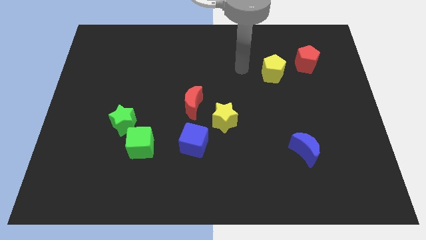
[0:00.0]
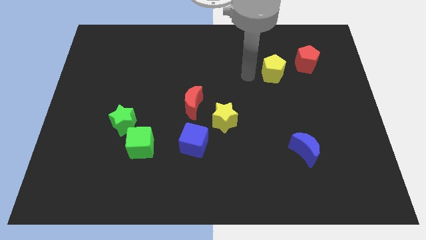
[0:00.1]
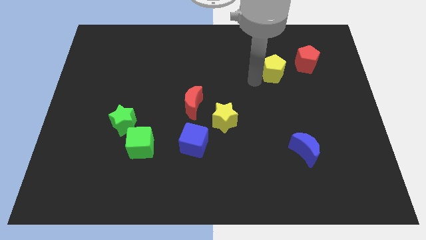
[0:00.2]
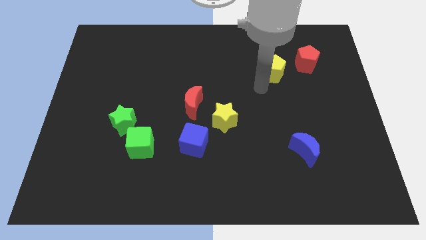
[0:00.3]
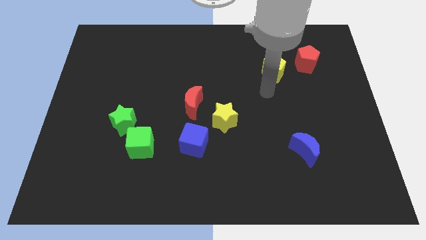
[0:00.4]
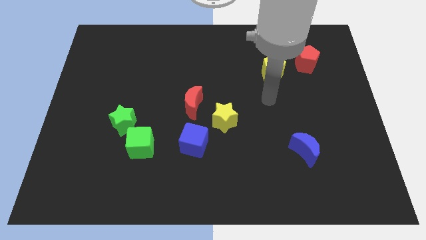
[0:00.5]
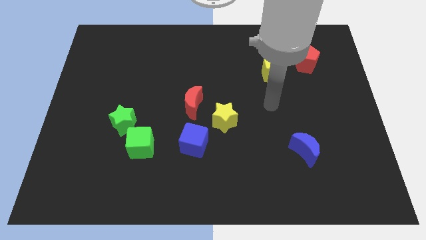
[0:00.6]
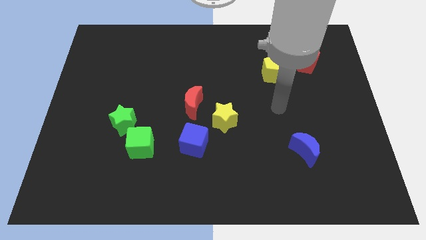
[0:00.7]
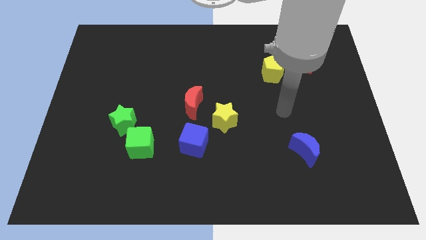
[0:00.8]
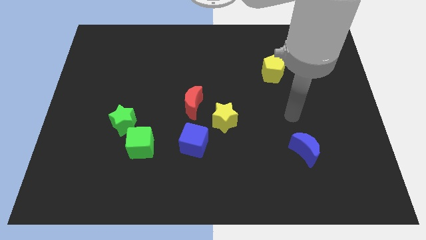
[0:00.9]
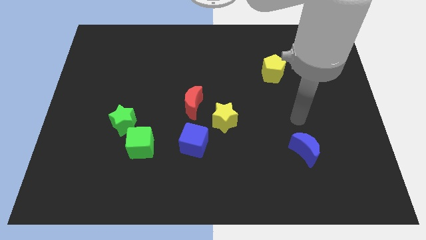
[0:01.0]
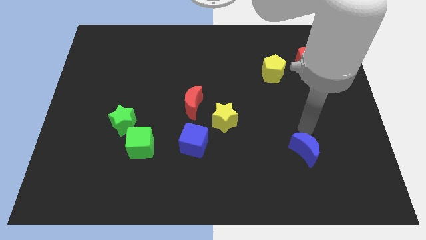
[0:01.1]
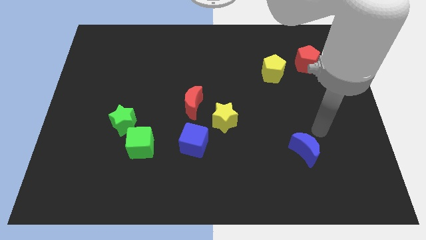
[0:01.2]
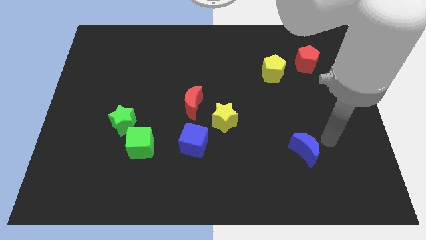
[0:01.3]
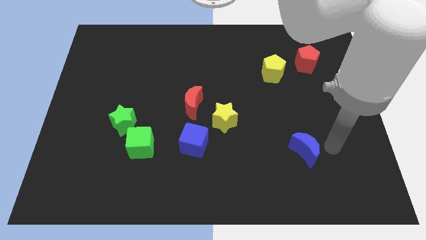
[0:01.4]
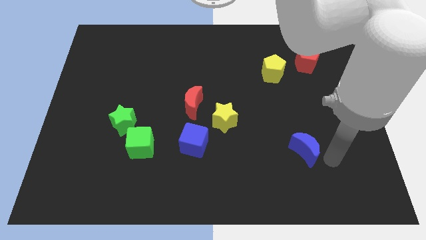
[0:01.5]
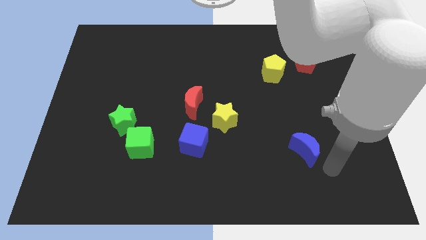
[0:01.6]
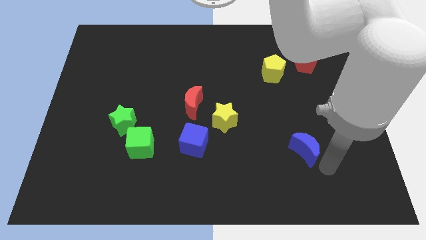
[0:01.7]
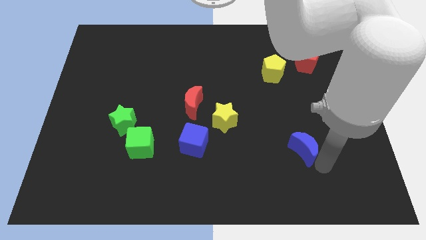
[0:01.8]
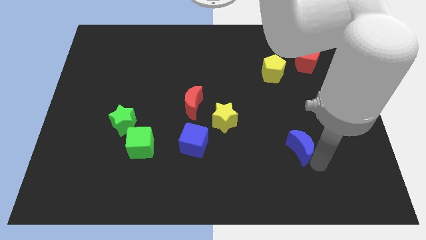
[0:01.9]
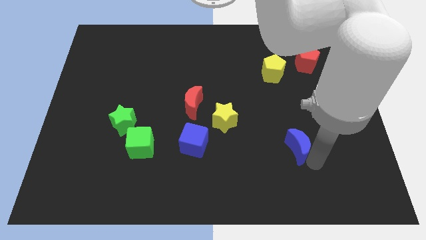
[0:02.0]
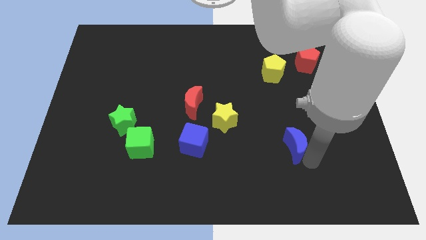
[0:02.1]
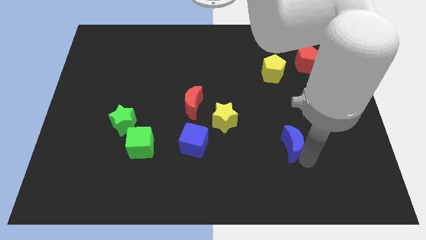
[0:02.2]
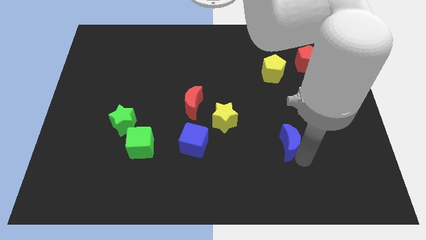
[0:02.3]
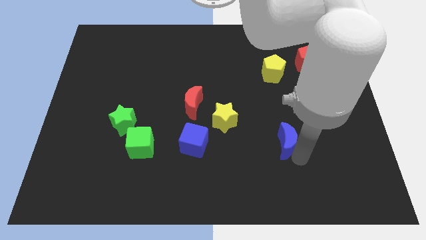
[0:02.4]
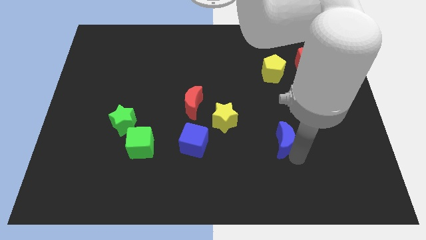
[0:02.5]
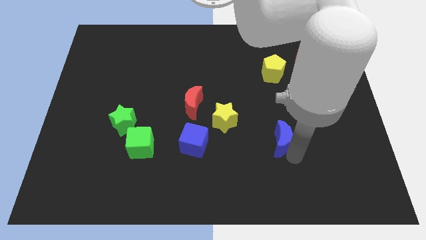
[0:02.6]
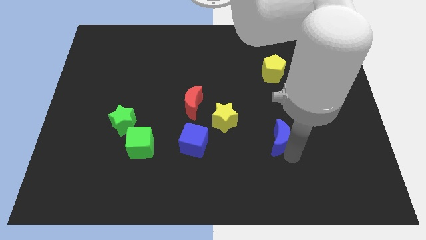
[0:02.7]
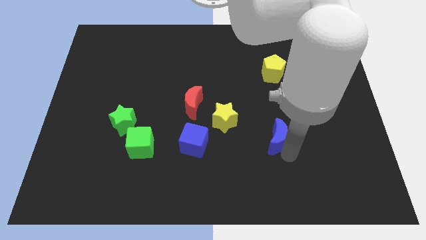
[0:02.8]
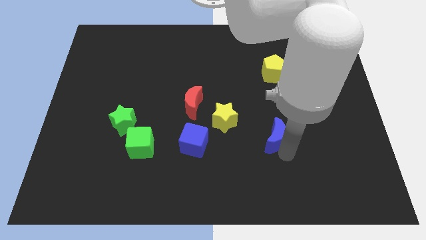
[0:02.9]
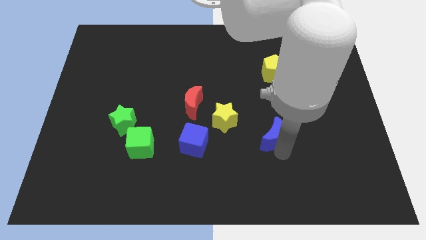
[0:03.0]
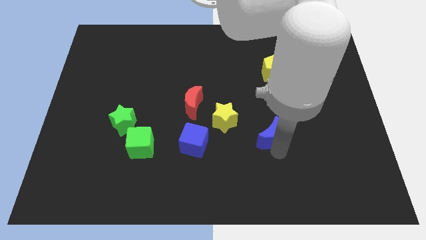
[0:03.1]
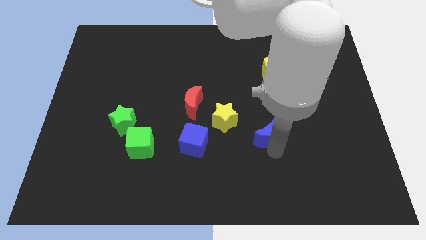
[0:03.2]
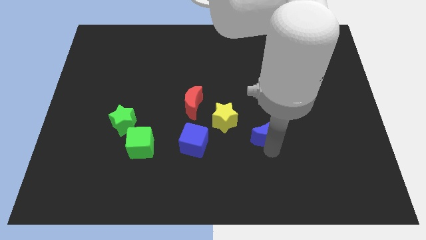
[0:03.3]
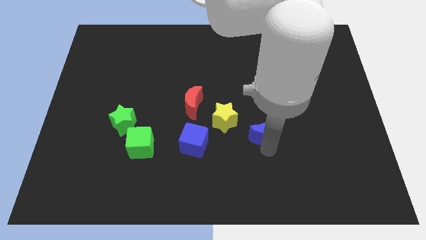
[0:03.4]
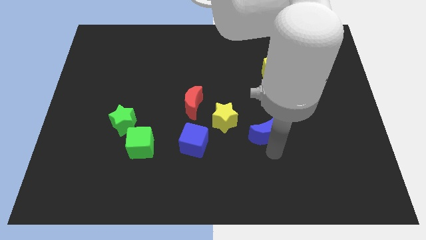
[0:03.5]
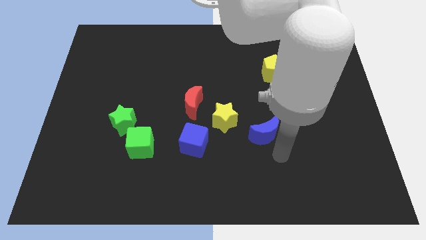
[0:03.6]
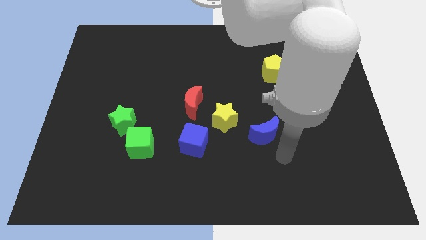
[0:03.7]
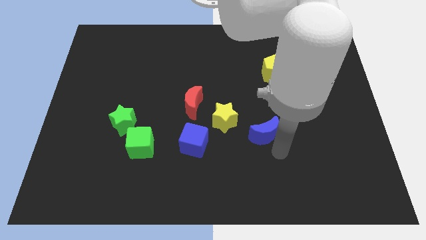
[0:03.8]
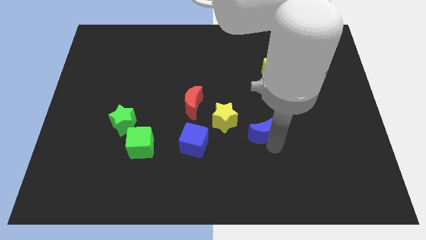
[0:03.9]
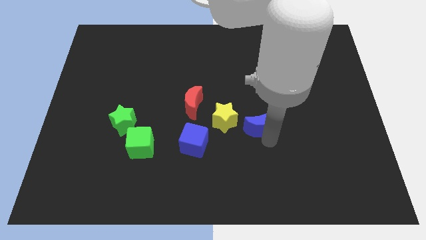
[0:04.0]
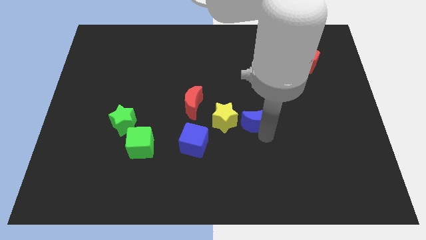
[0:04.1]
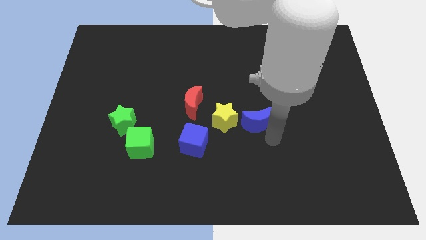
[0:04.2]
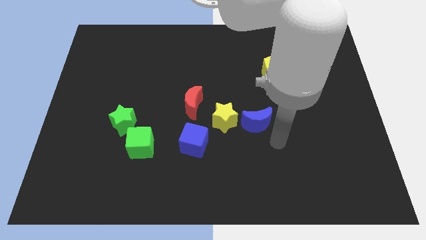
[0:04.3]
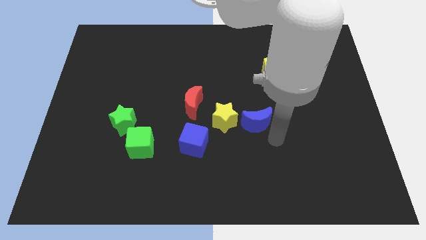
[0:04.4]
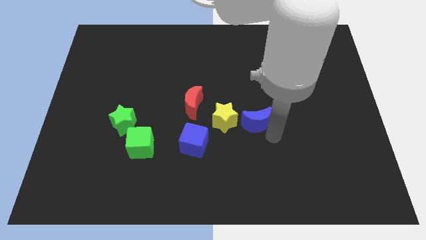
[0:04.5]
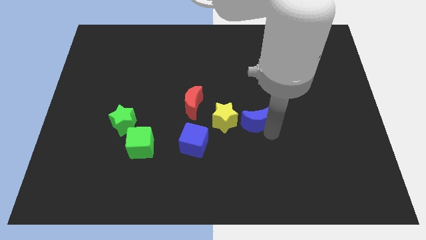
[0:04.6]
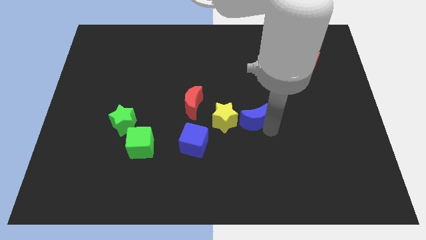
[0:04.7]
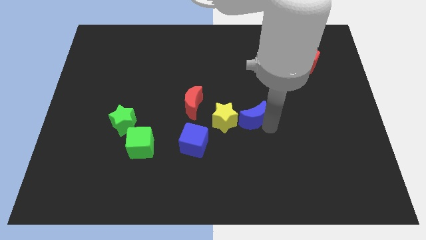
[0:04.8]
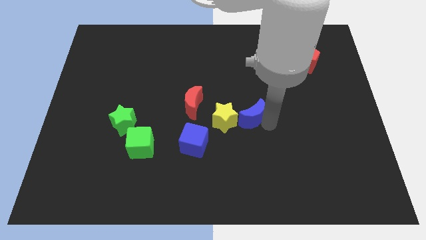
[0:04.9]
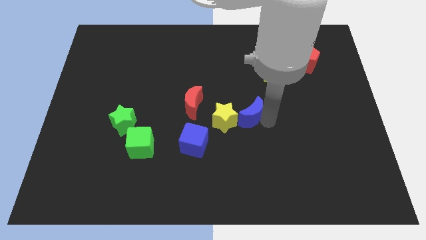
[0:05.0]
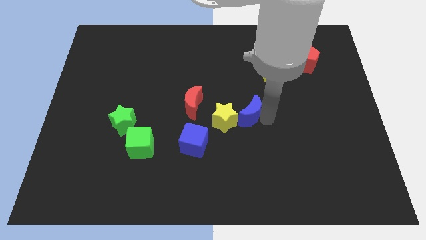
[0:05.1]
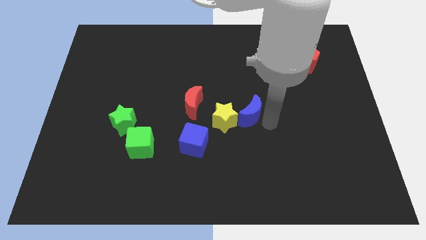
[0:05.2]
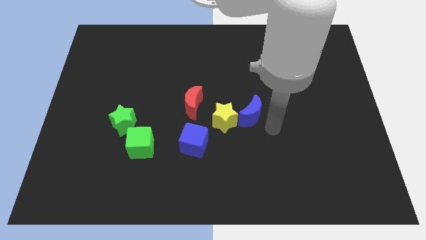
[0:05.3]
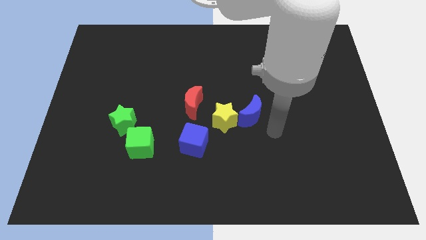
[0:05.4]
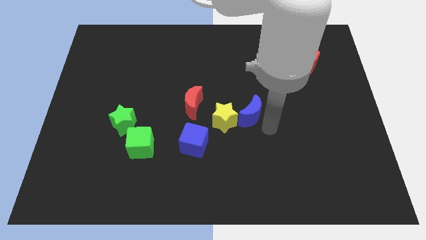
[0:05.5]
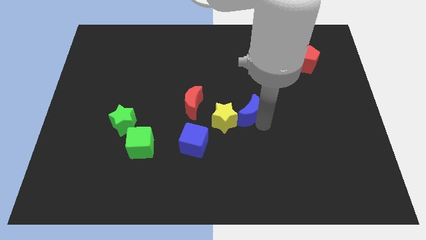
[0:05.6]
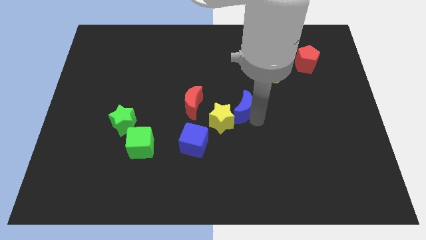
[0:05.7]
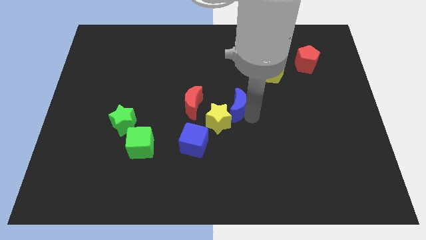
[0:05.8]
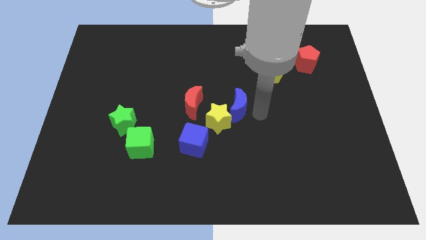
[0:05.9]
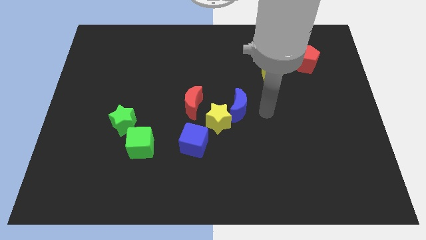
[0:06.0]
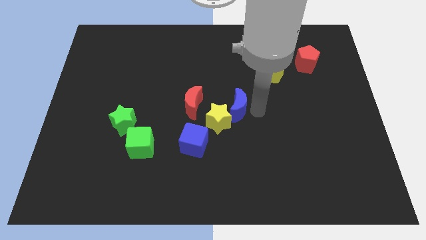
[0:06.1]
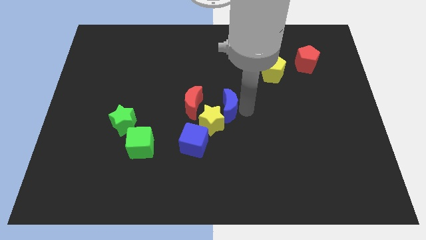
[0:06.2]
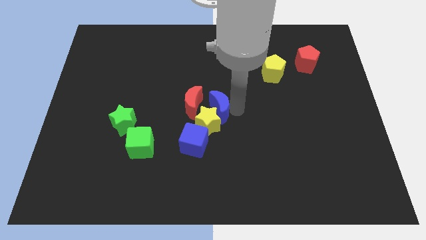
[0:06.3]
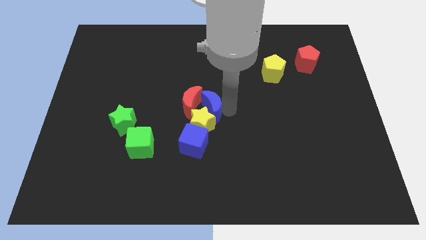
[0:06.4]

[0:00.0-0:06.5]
put the blue moon to the red moon
